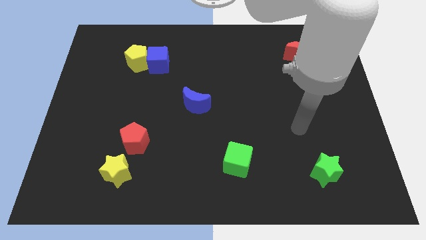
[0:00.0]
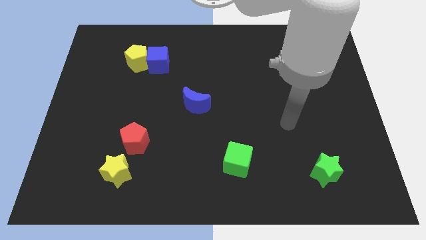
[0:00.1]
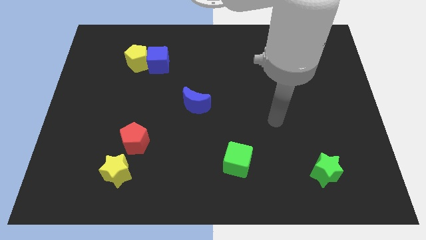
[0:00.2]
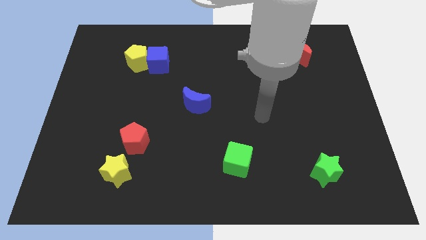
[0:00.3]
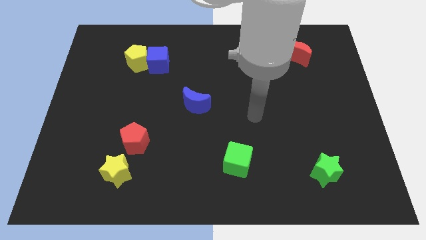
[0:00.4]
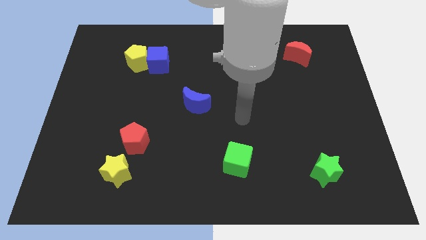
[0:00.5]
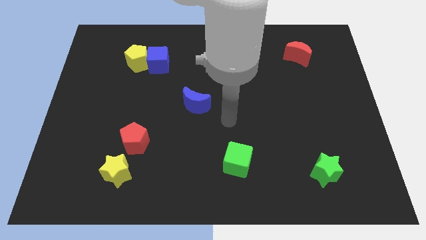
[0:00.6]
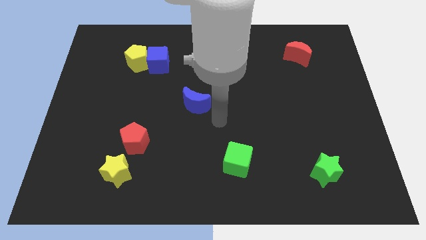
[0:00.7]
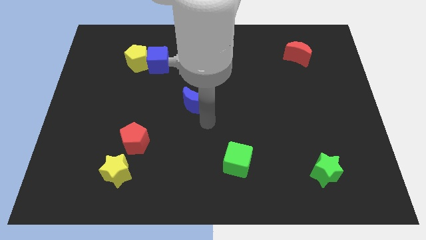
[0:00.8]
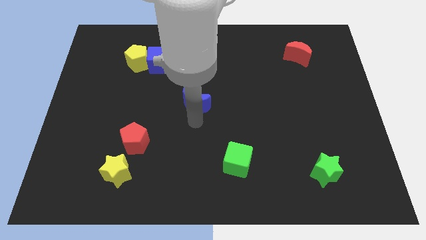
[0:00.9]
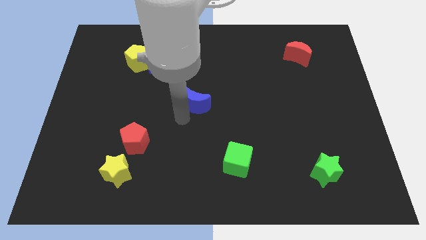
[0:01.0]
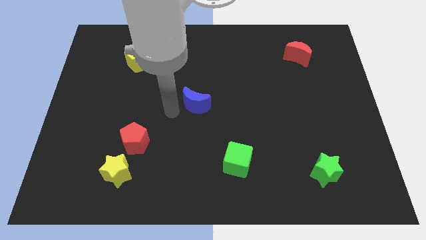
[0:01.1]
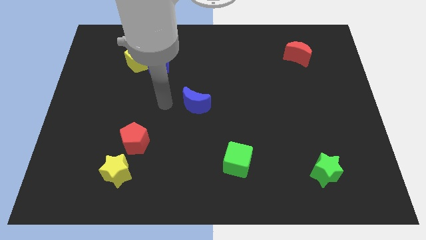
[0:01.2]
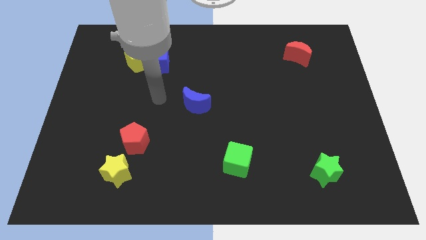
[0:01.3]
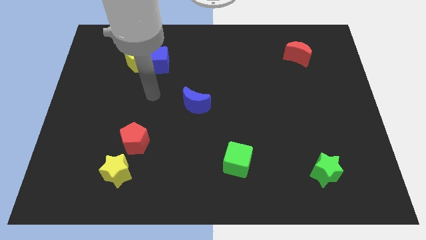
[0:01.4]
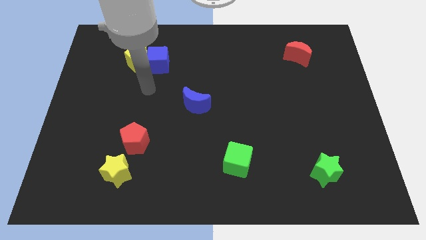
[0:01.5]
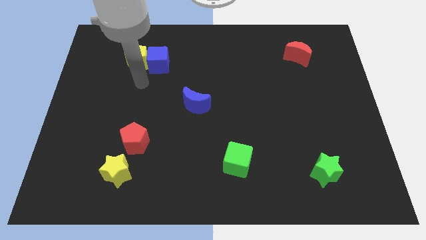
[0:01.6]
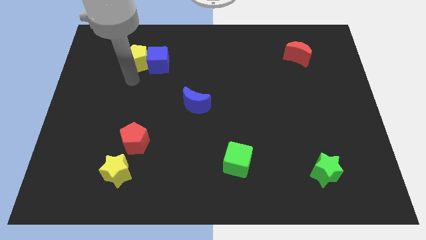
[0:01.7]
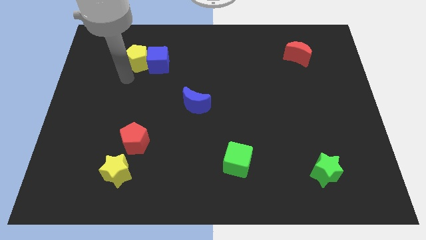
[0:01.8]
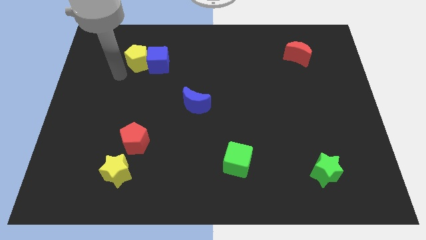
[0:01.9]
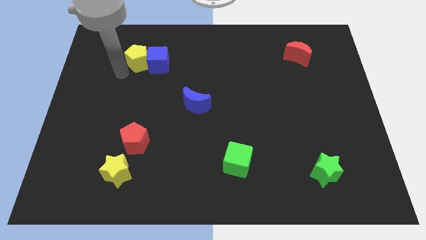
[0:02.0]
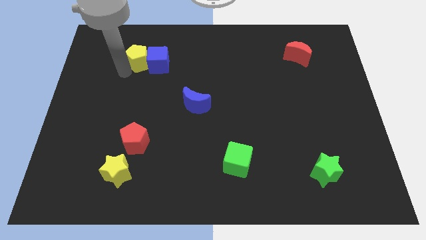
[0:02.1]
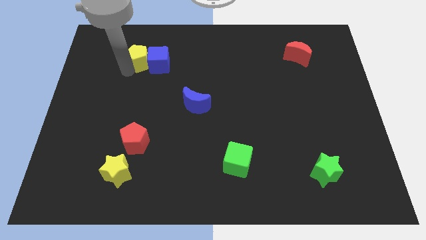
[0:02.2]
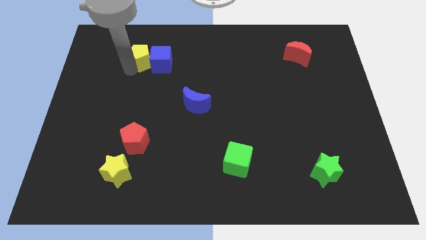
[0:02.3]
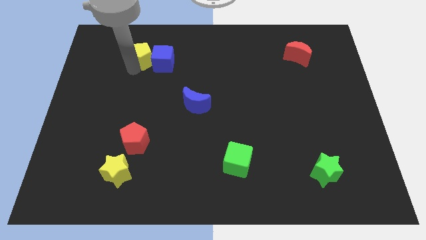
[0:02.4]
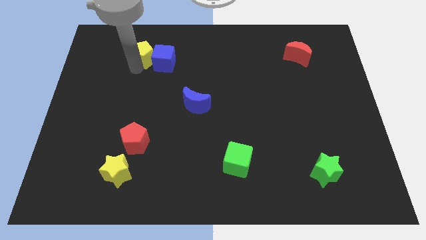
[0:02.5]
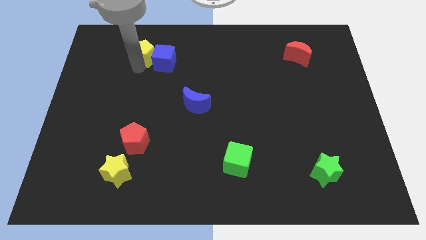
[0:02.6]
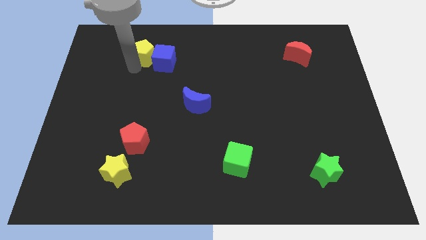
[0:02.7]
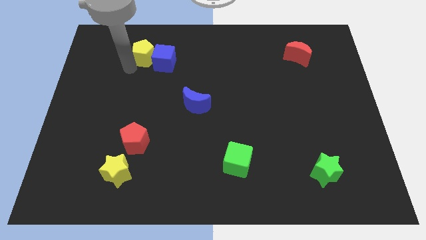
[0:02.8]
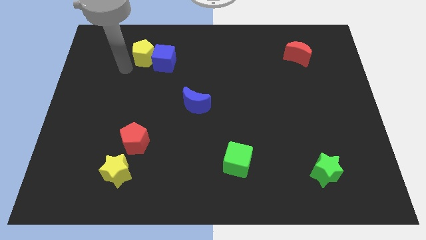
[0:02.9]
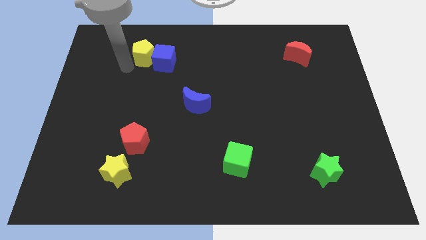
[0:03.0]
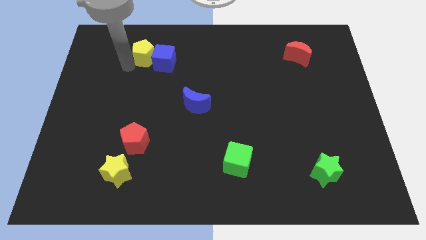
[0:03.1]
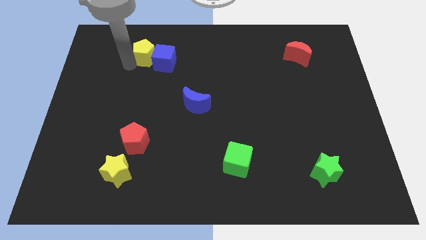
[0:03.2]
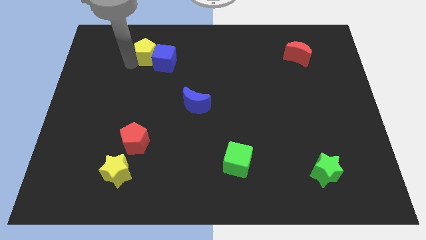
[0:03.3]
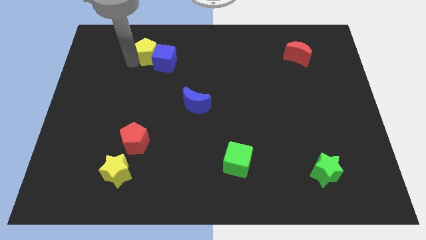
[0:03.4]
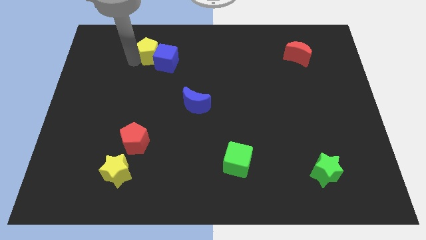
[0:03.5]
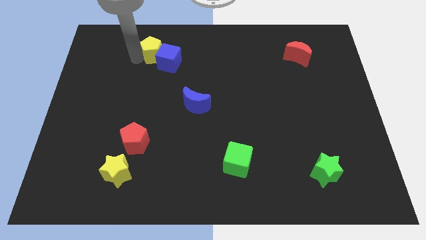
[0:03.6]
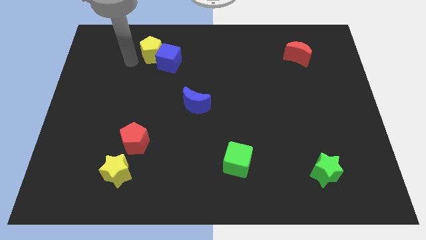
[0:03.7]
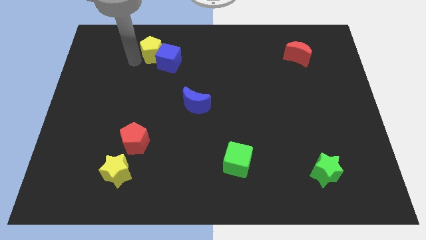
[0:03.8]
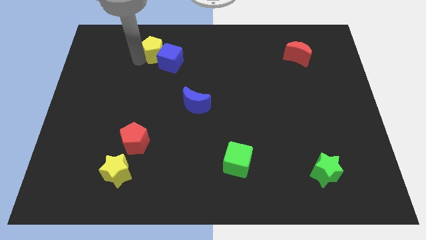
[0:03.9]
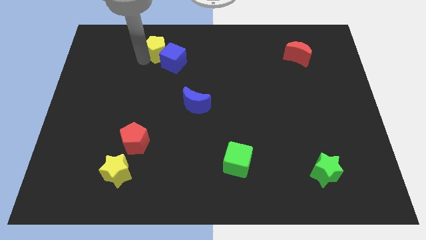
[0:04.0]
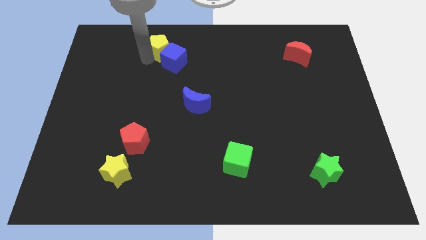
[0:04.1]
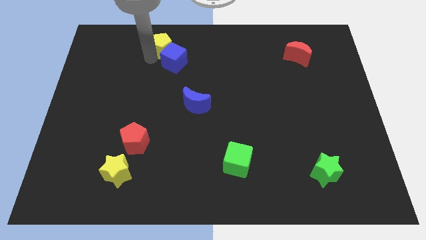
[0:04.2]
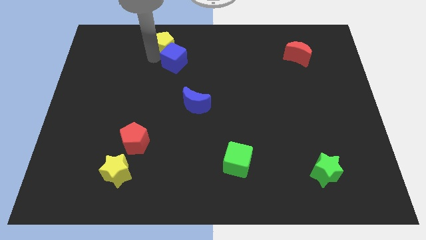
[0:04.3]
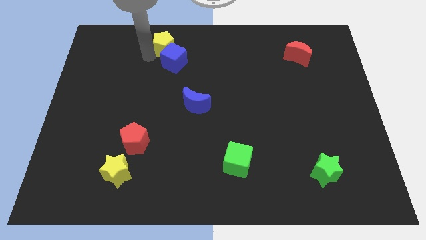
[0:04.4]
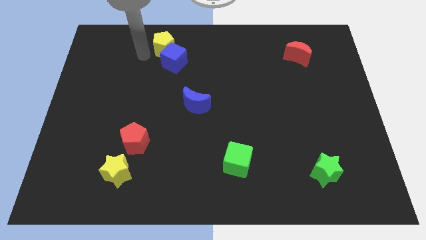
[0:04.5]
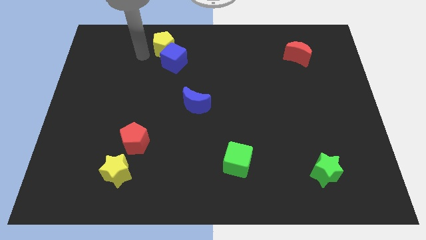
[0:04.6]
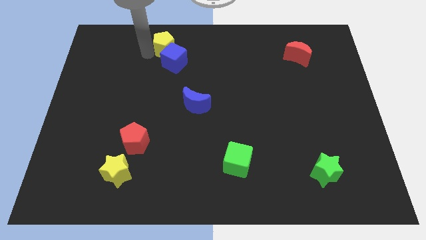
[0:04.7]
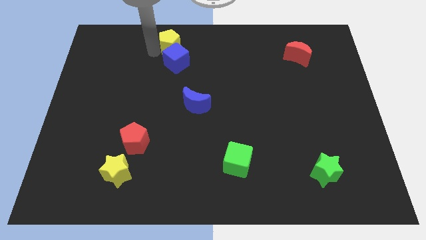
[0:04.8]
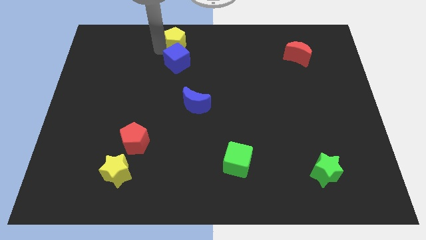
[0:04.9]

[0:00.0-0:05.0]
slide the yellow pentagon to the top side
